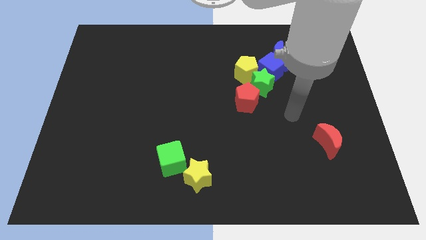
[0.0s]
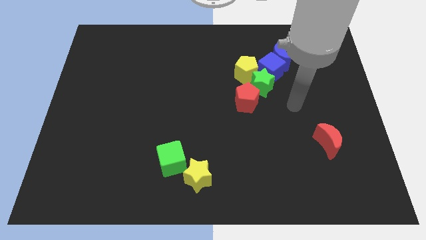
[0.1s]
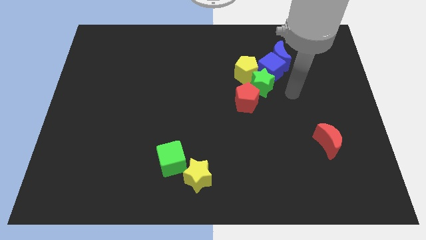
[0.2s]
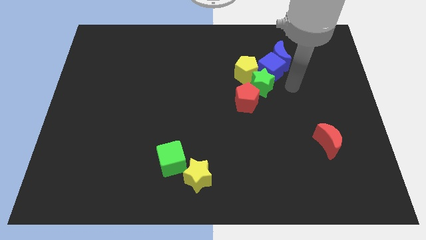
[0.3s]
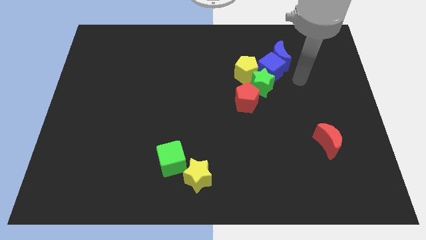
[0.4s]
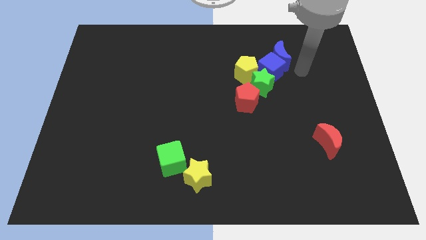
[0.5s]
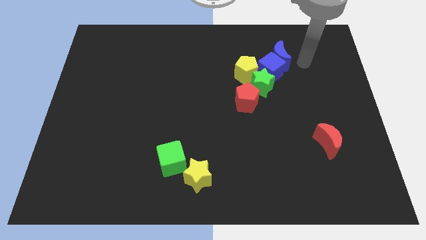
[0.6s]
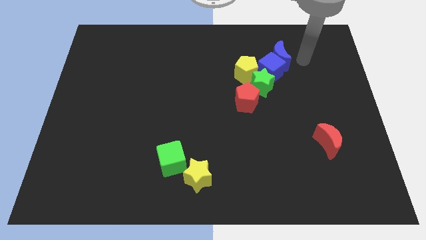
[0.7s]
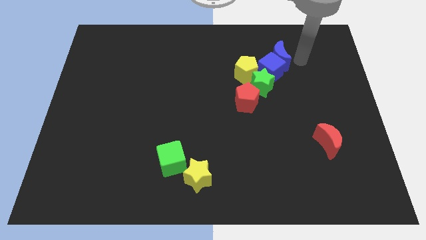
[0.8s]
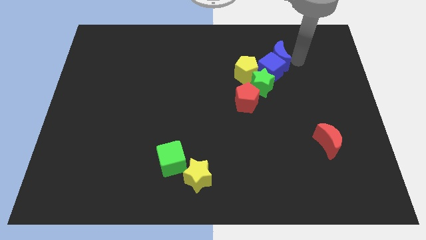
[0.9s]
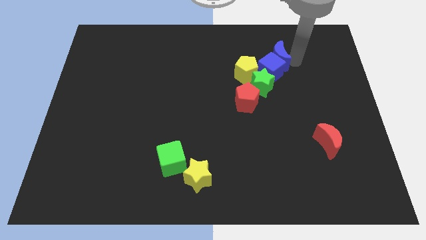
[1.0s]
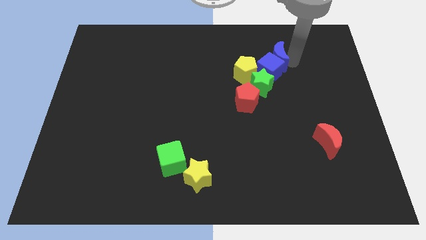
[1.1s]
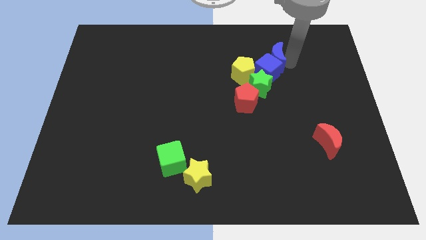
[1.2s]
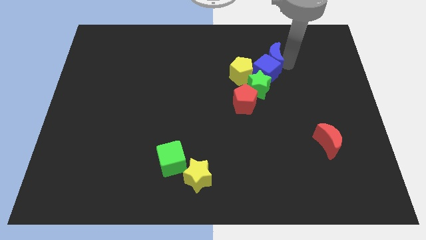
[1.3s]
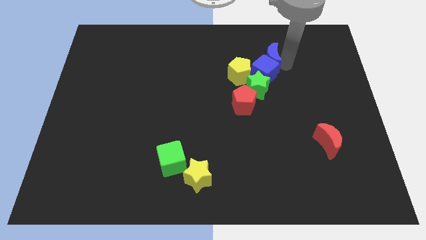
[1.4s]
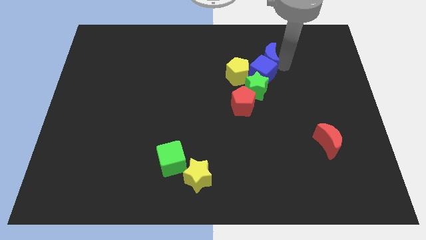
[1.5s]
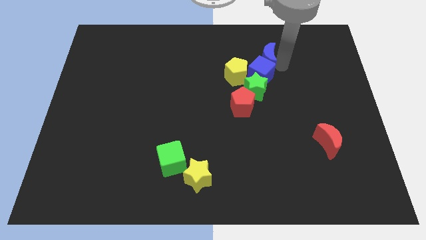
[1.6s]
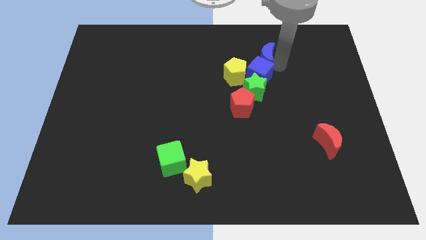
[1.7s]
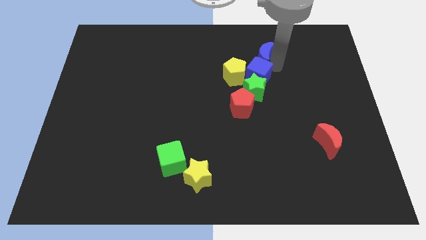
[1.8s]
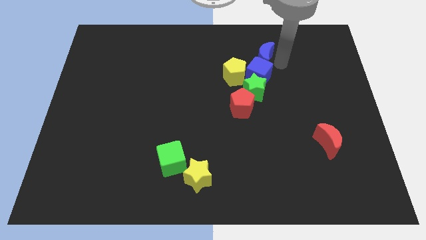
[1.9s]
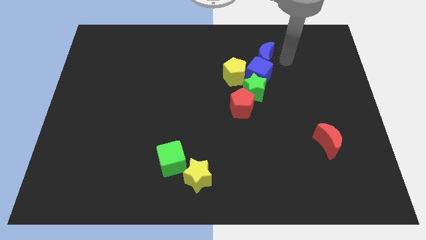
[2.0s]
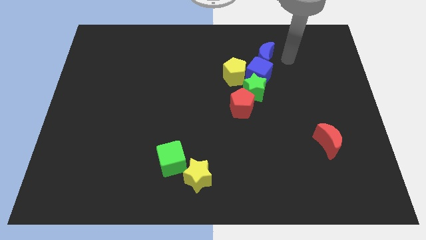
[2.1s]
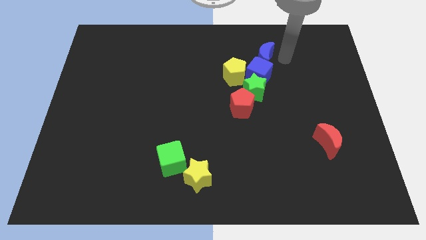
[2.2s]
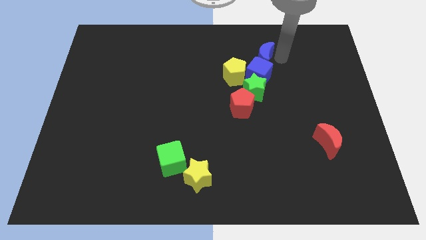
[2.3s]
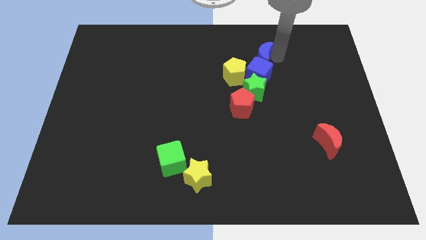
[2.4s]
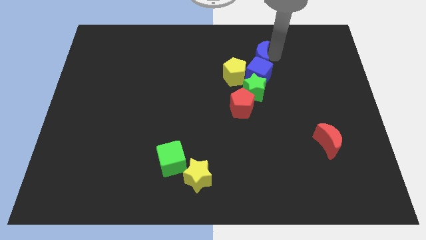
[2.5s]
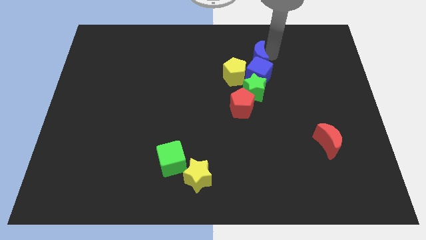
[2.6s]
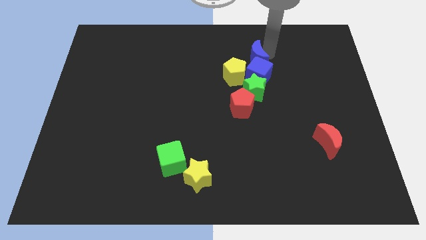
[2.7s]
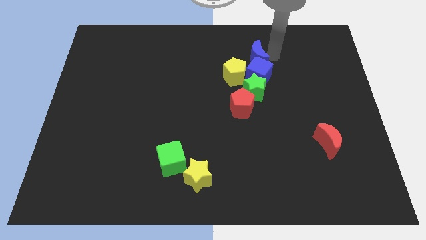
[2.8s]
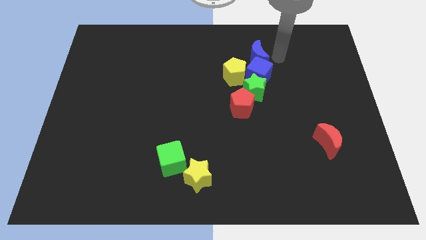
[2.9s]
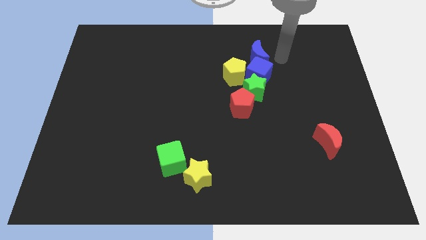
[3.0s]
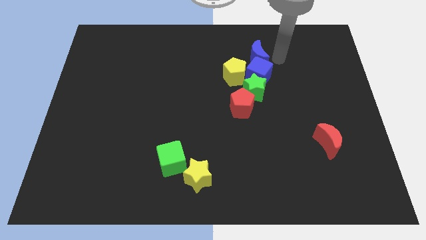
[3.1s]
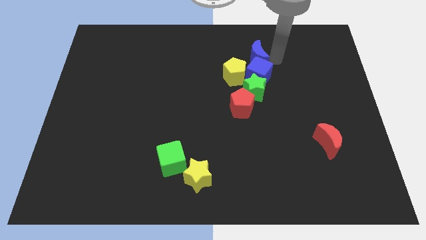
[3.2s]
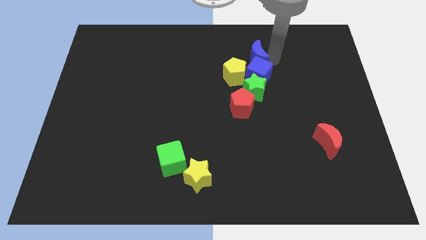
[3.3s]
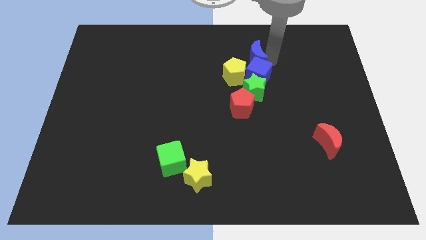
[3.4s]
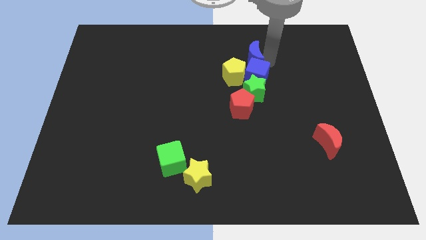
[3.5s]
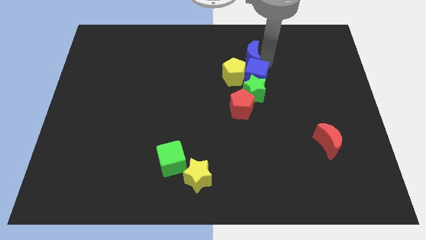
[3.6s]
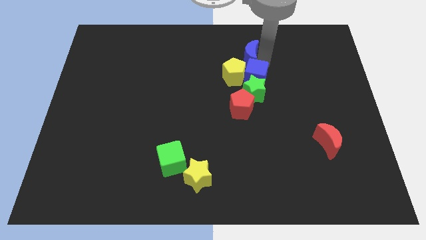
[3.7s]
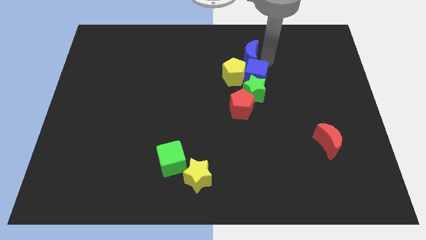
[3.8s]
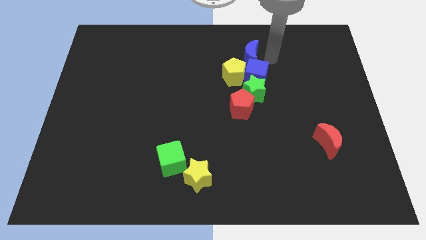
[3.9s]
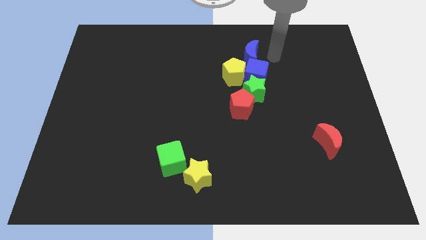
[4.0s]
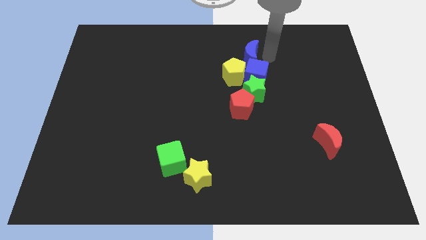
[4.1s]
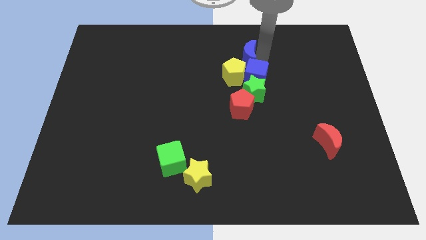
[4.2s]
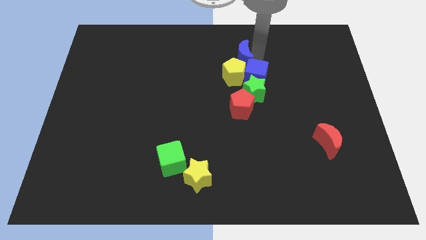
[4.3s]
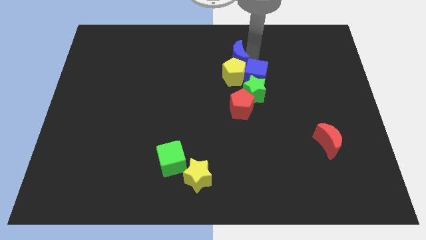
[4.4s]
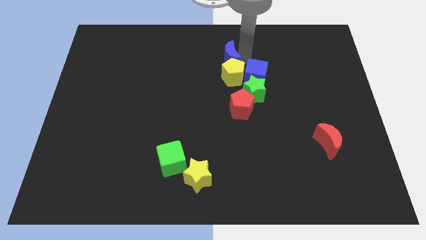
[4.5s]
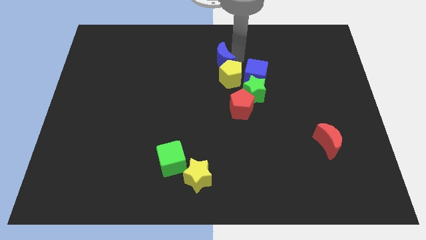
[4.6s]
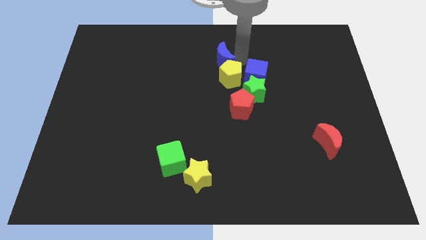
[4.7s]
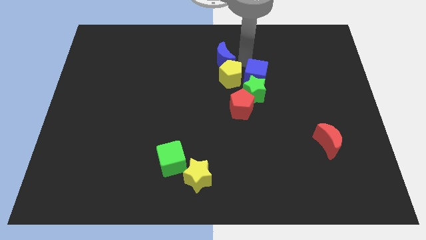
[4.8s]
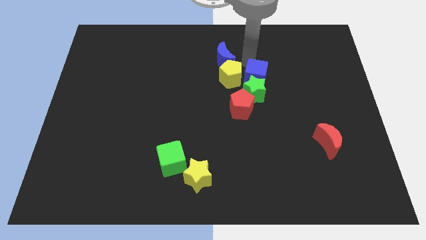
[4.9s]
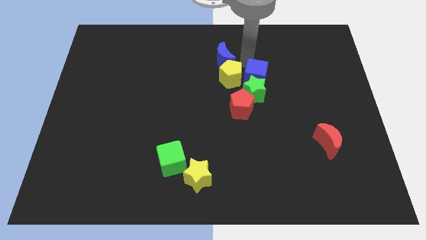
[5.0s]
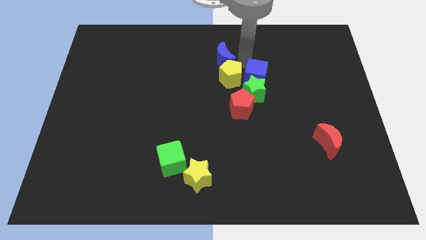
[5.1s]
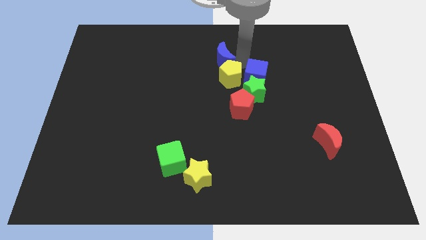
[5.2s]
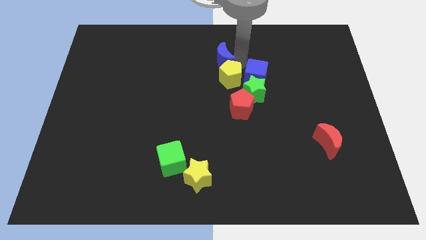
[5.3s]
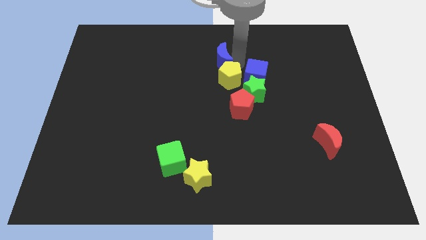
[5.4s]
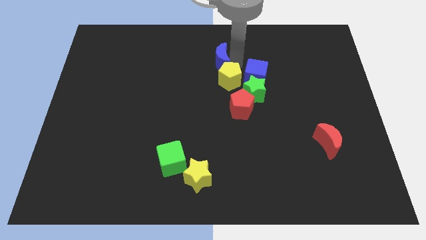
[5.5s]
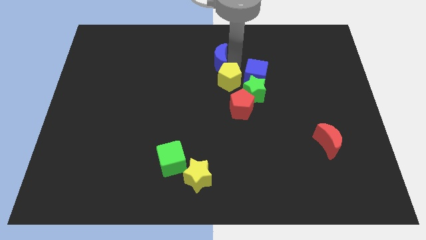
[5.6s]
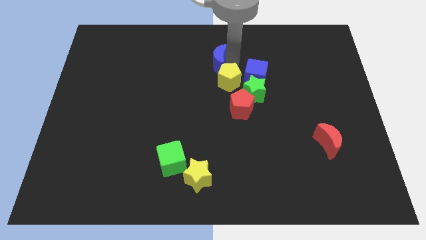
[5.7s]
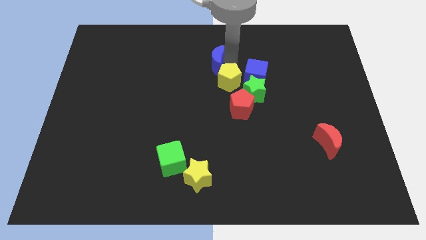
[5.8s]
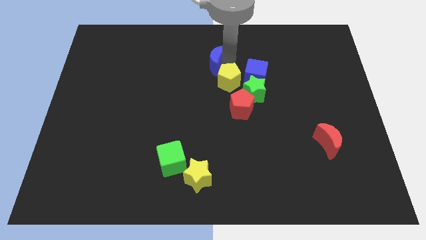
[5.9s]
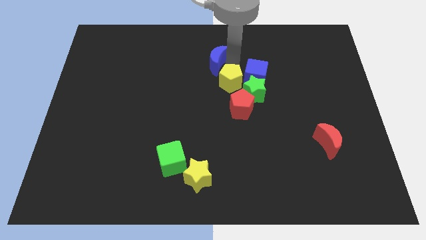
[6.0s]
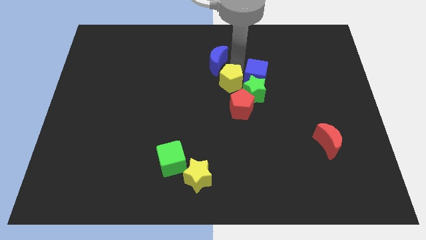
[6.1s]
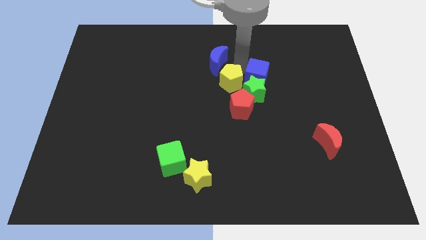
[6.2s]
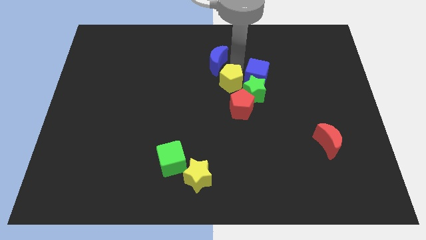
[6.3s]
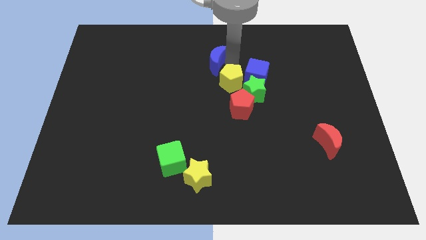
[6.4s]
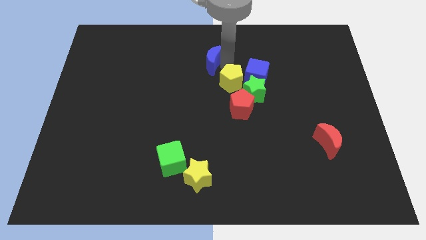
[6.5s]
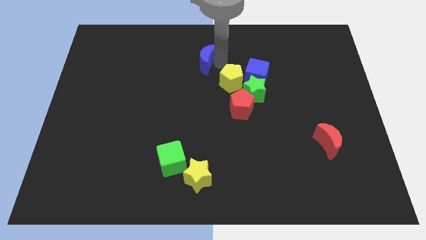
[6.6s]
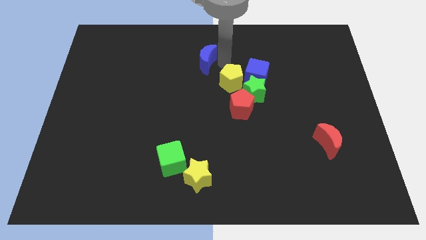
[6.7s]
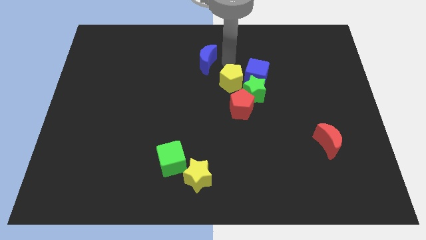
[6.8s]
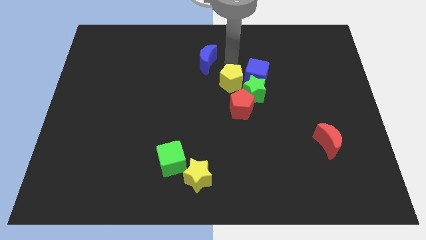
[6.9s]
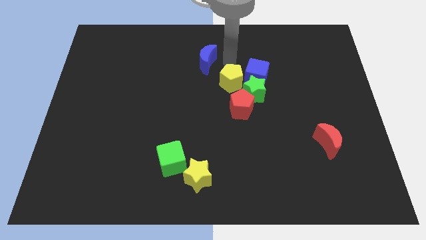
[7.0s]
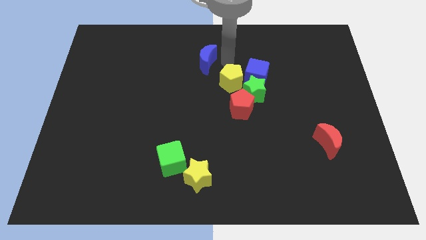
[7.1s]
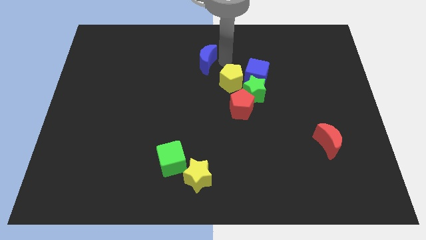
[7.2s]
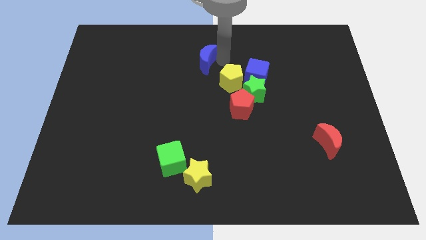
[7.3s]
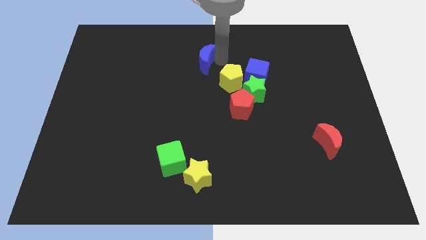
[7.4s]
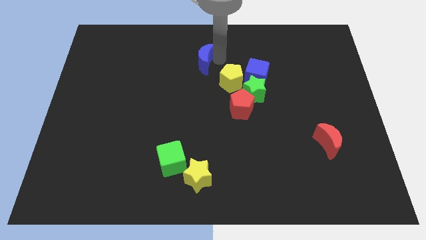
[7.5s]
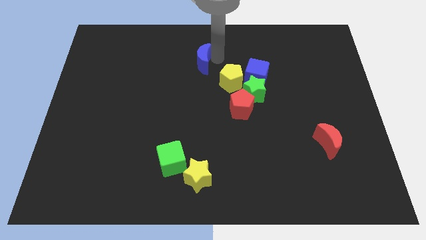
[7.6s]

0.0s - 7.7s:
slide the blue moon to the left

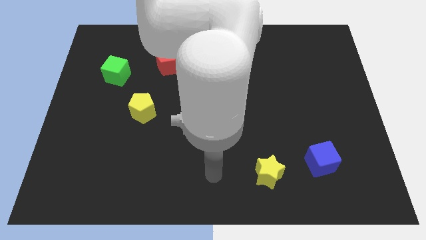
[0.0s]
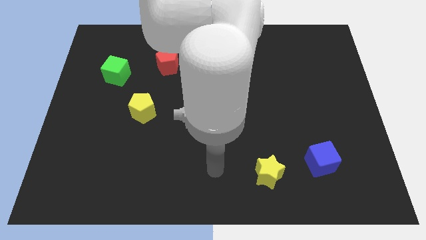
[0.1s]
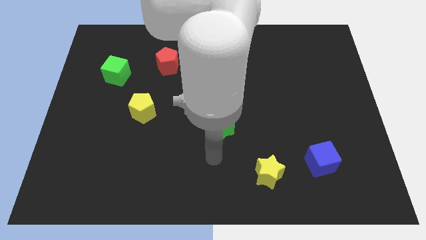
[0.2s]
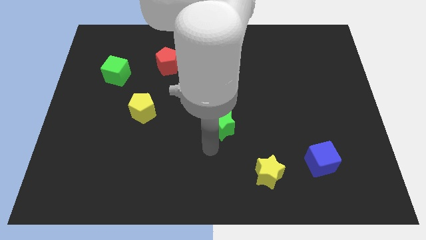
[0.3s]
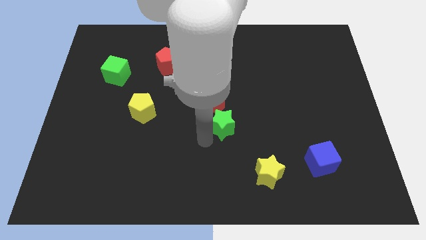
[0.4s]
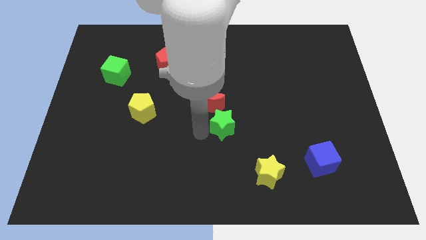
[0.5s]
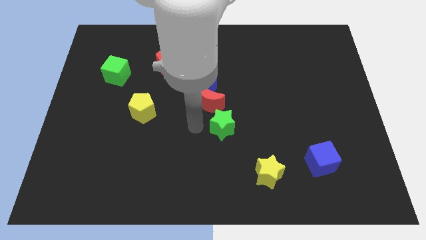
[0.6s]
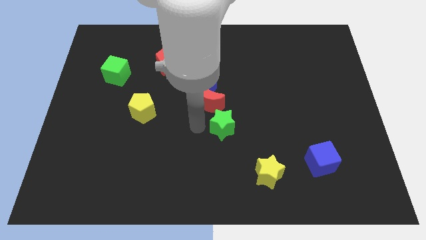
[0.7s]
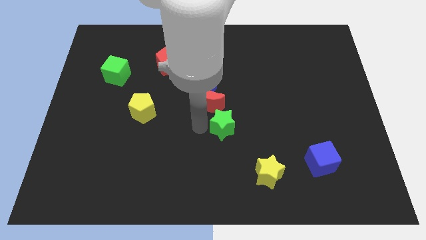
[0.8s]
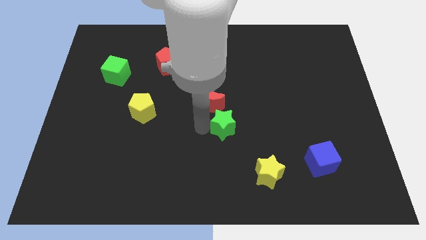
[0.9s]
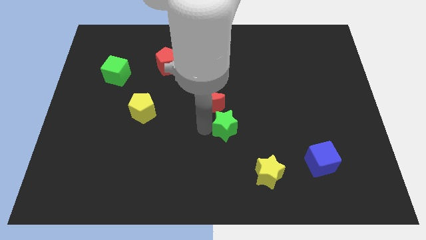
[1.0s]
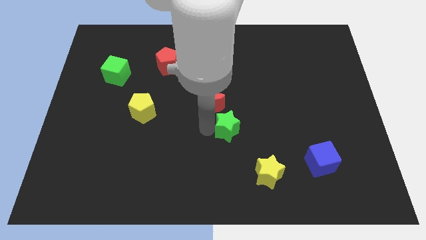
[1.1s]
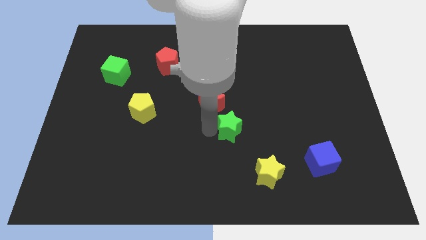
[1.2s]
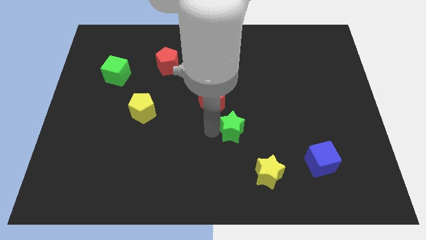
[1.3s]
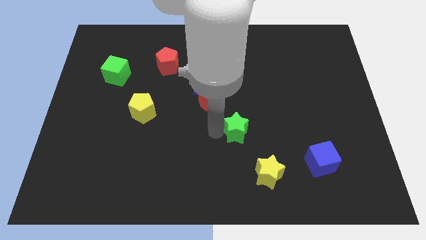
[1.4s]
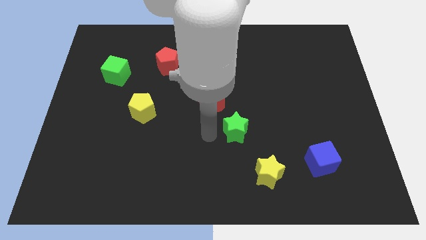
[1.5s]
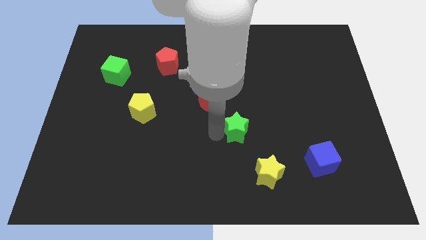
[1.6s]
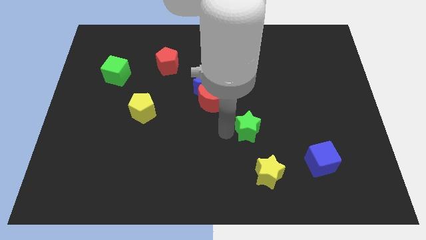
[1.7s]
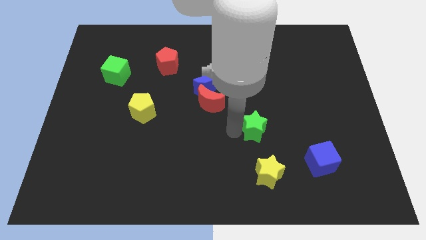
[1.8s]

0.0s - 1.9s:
move the green star a little to the right
